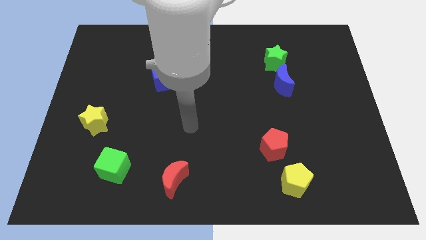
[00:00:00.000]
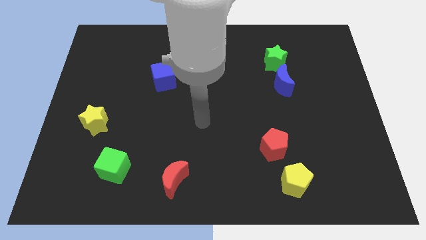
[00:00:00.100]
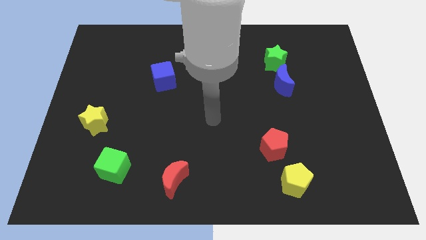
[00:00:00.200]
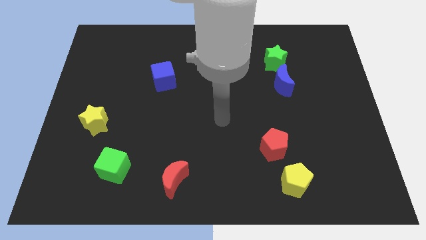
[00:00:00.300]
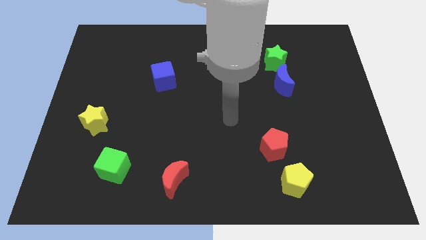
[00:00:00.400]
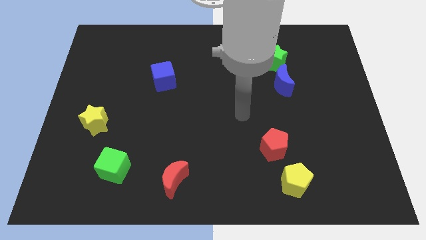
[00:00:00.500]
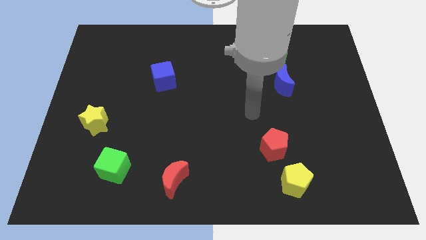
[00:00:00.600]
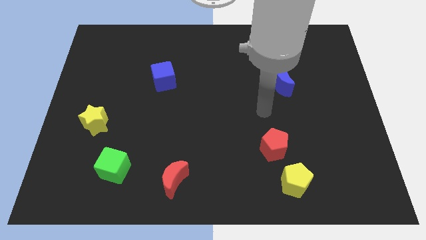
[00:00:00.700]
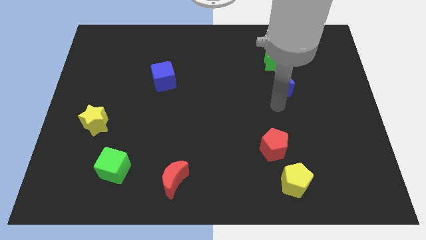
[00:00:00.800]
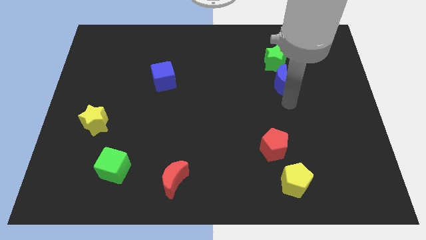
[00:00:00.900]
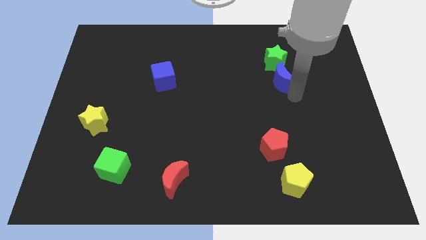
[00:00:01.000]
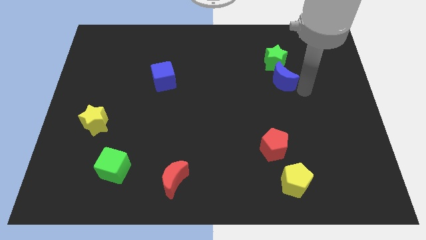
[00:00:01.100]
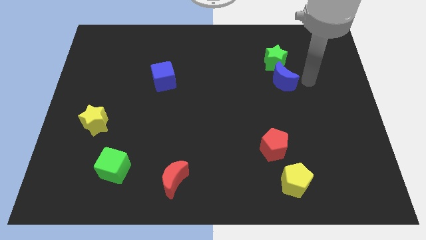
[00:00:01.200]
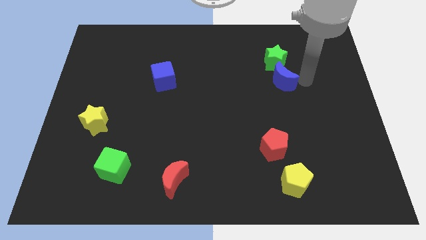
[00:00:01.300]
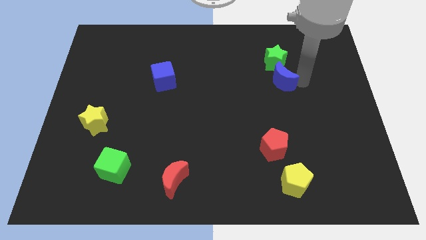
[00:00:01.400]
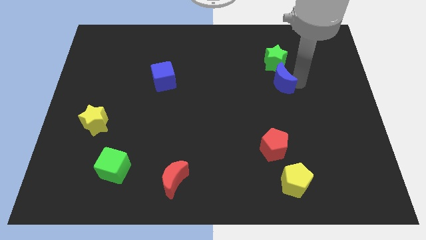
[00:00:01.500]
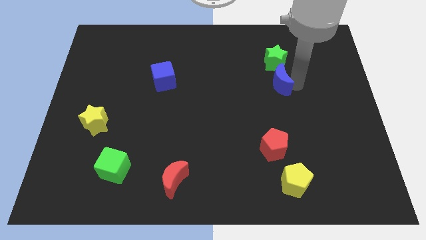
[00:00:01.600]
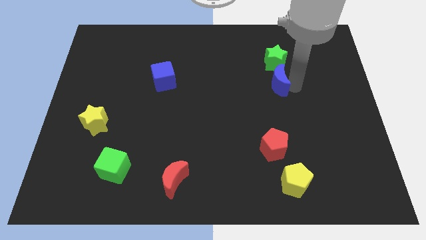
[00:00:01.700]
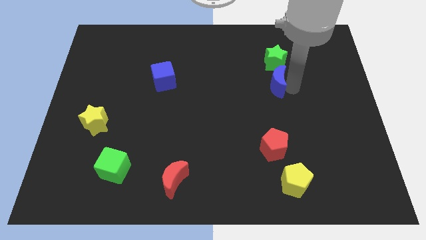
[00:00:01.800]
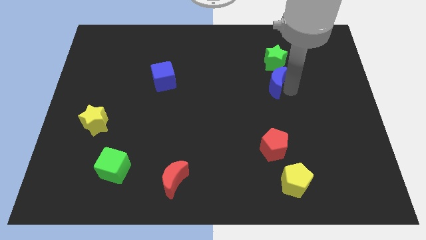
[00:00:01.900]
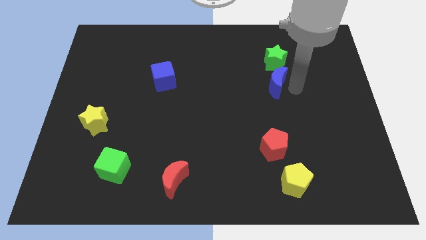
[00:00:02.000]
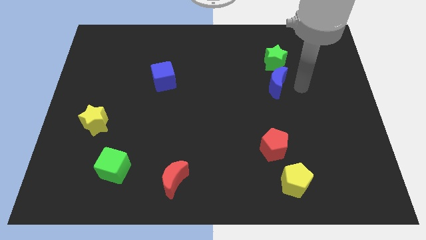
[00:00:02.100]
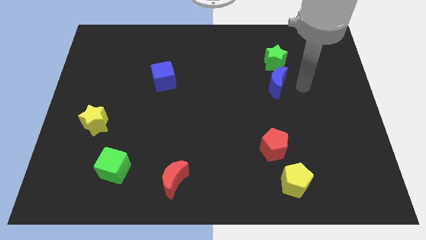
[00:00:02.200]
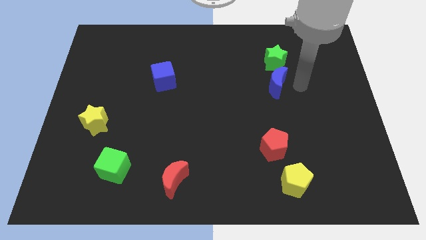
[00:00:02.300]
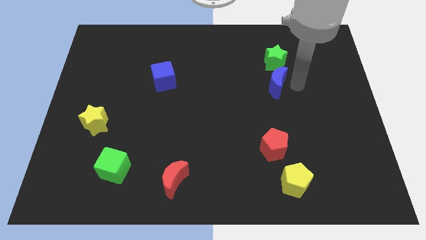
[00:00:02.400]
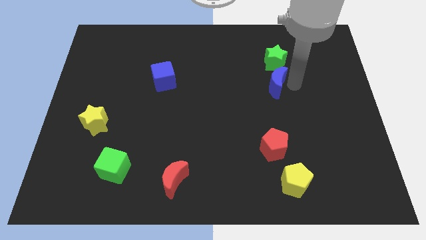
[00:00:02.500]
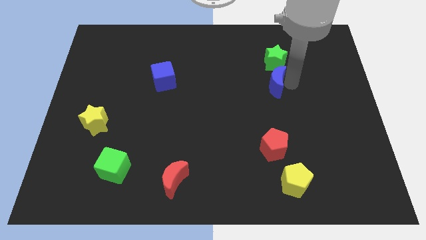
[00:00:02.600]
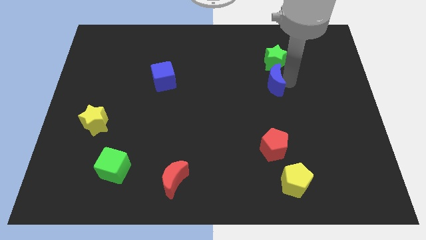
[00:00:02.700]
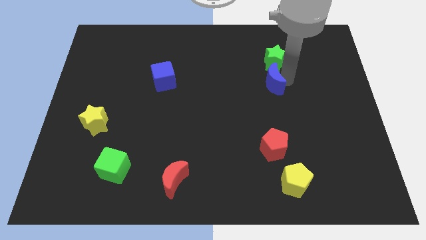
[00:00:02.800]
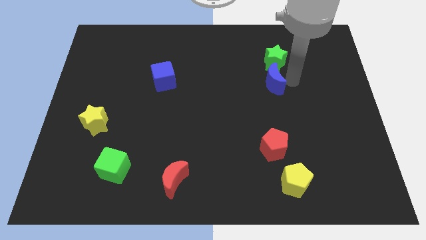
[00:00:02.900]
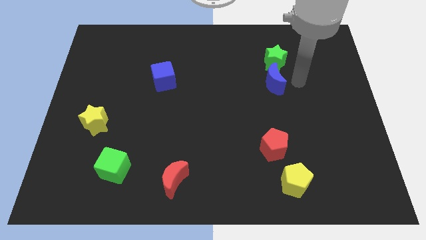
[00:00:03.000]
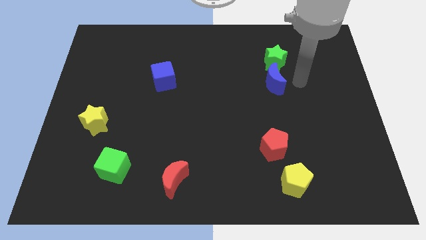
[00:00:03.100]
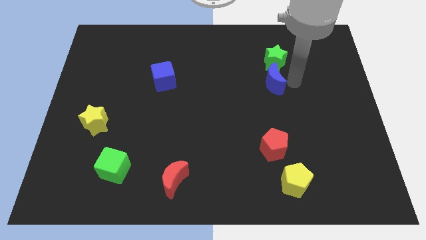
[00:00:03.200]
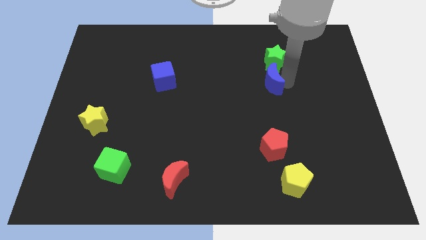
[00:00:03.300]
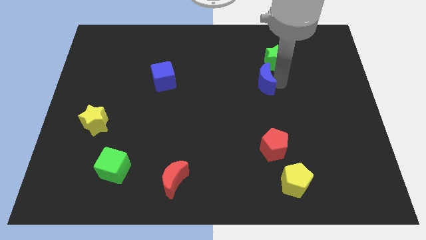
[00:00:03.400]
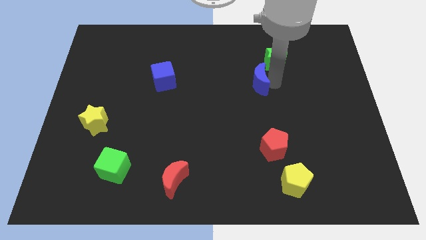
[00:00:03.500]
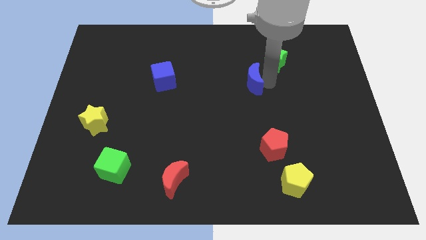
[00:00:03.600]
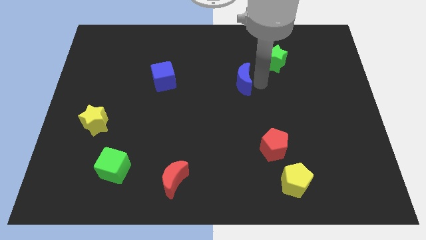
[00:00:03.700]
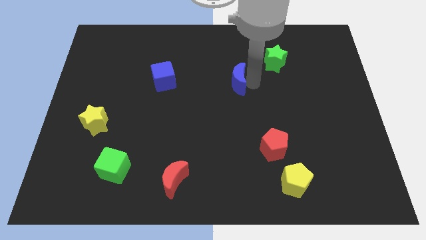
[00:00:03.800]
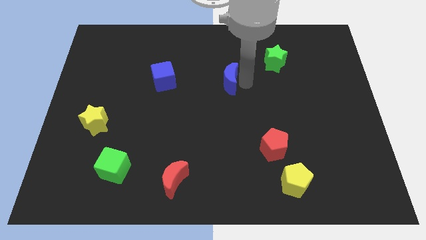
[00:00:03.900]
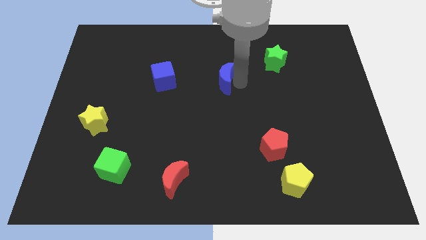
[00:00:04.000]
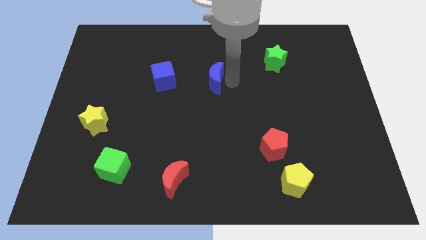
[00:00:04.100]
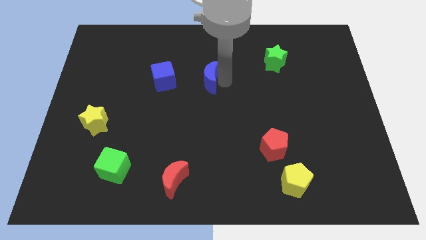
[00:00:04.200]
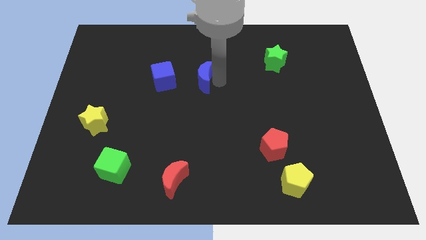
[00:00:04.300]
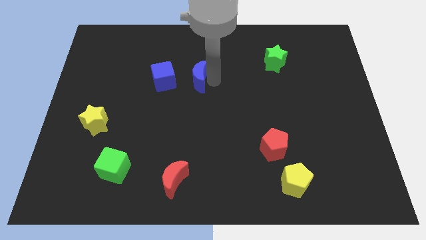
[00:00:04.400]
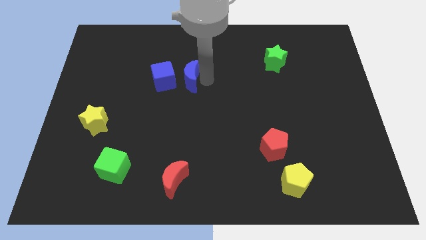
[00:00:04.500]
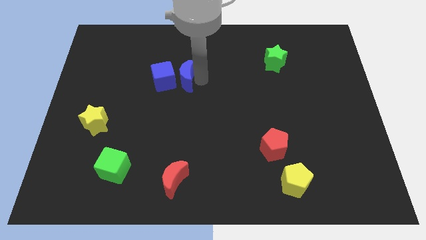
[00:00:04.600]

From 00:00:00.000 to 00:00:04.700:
slide the blue moon next to the blue cube

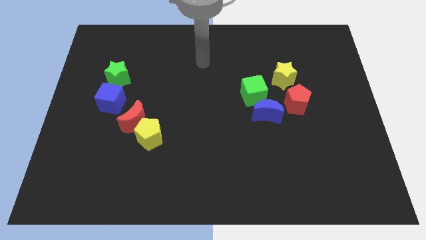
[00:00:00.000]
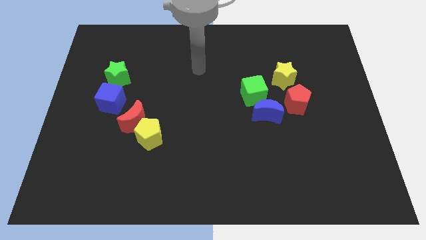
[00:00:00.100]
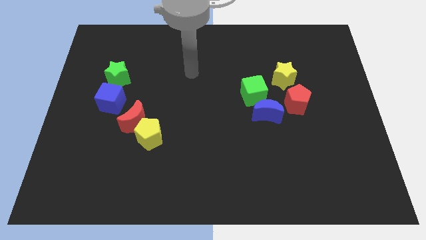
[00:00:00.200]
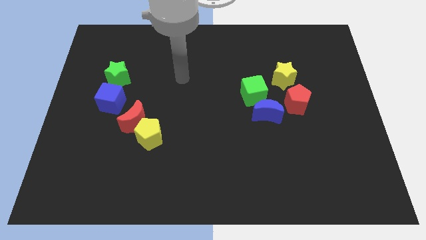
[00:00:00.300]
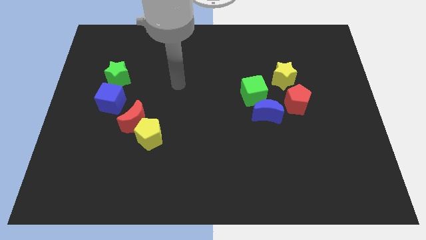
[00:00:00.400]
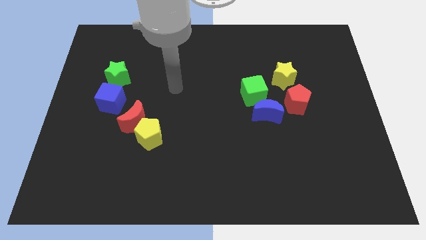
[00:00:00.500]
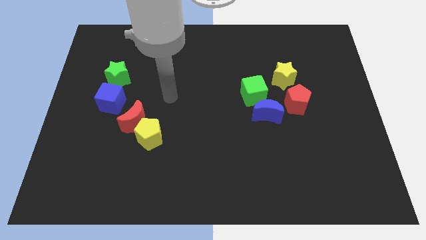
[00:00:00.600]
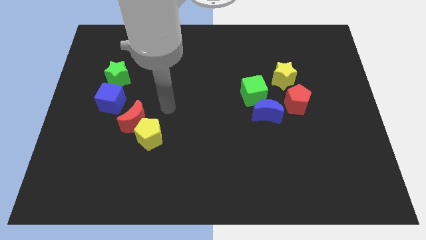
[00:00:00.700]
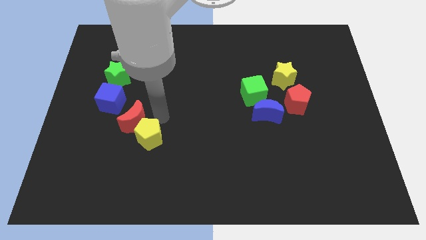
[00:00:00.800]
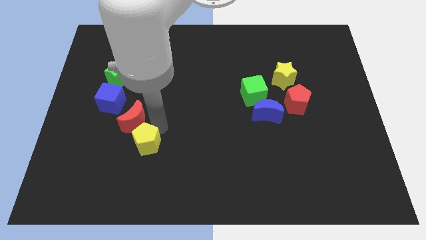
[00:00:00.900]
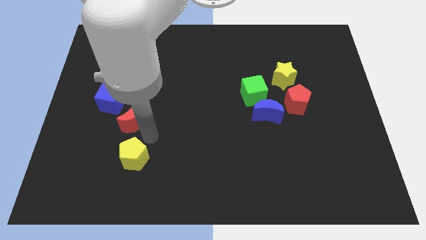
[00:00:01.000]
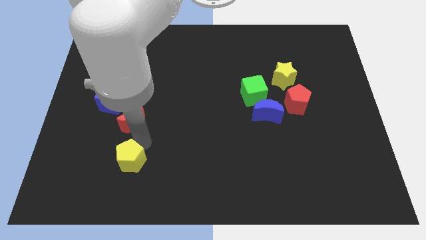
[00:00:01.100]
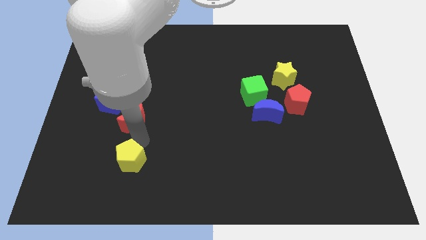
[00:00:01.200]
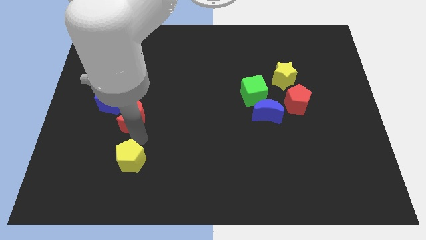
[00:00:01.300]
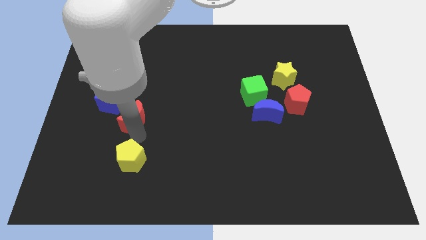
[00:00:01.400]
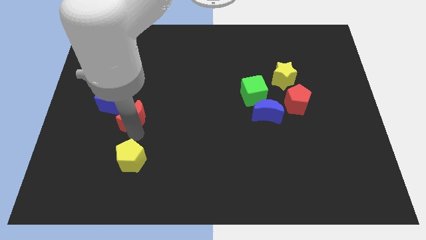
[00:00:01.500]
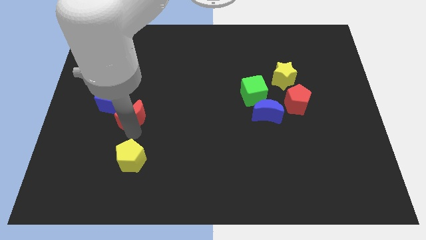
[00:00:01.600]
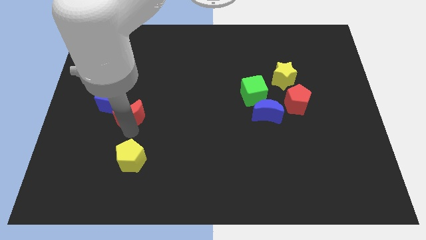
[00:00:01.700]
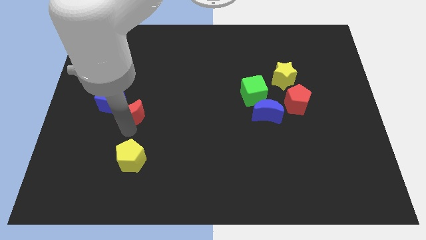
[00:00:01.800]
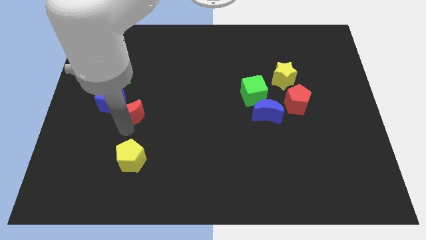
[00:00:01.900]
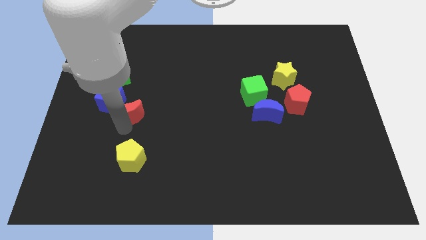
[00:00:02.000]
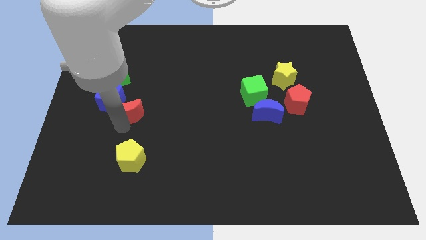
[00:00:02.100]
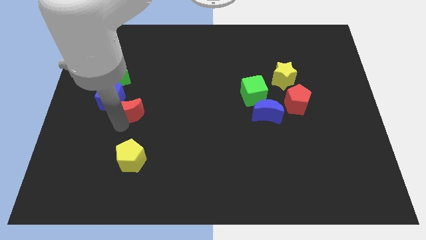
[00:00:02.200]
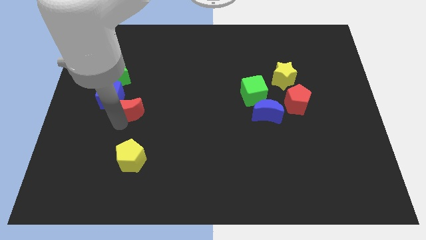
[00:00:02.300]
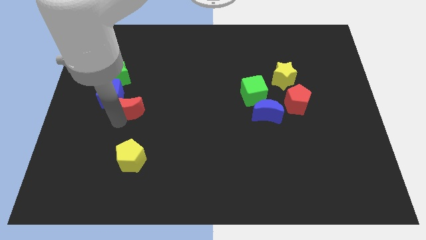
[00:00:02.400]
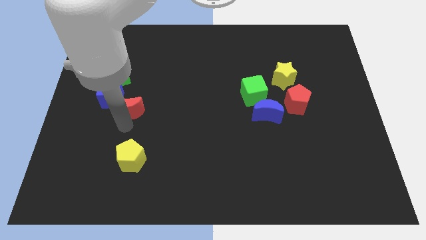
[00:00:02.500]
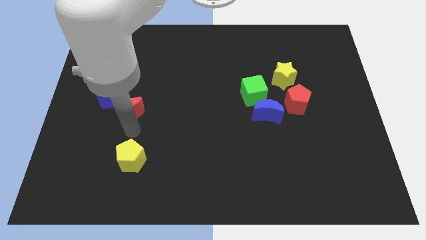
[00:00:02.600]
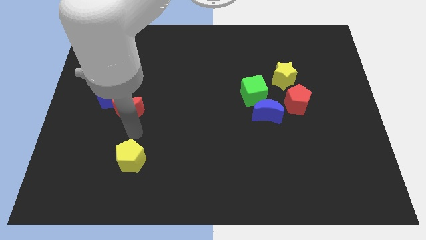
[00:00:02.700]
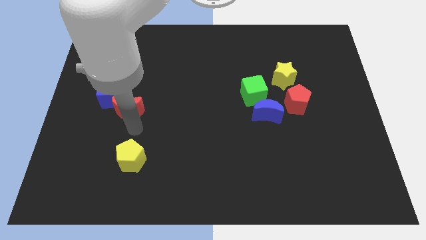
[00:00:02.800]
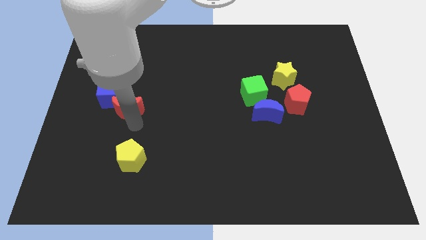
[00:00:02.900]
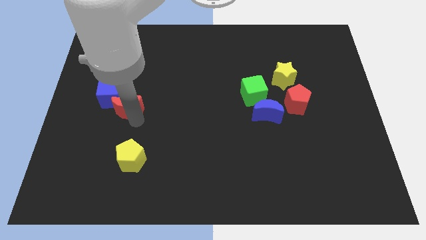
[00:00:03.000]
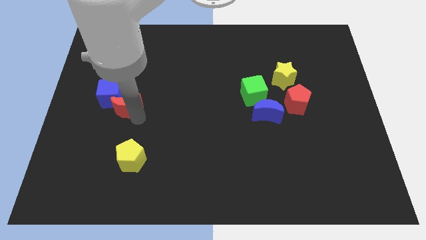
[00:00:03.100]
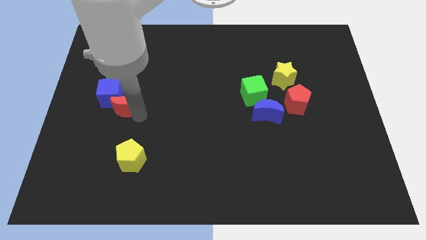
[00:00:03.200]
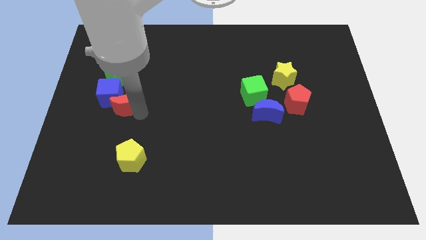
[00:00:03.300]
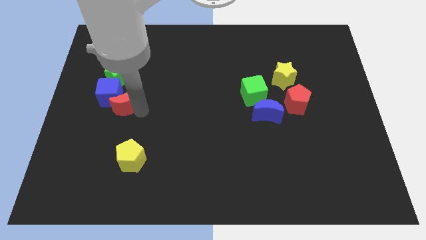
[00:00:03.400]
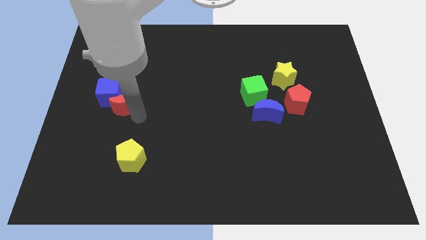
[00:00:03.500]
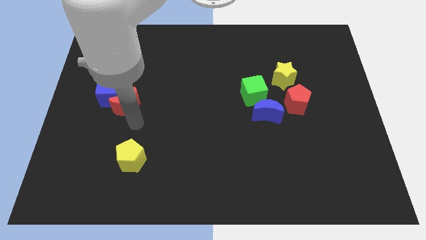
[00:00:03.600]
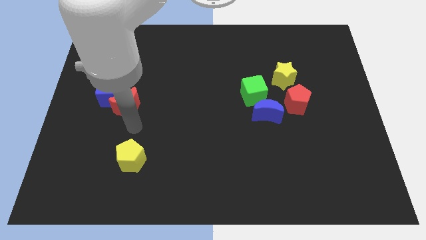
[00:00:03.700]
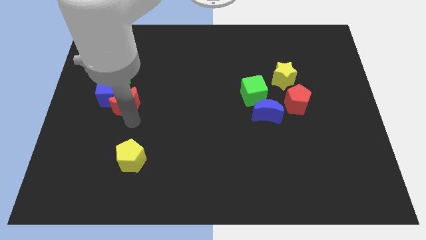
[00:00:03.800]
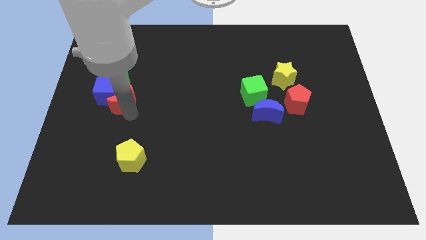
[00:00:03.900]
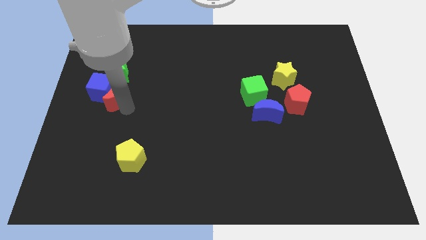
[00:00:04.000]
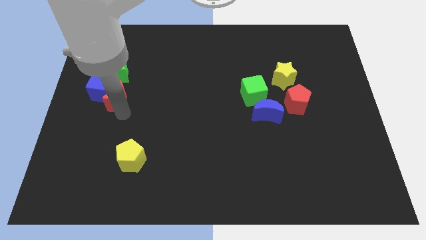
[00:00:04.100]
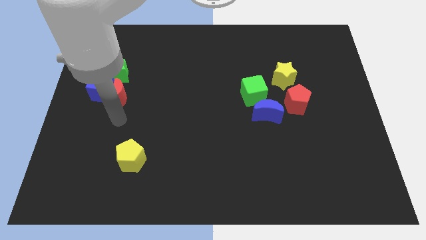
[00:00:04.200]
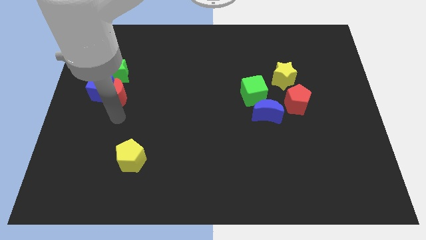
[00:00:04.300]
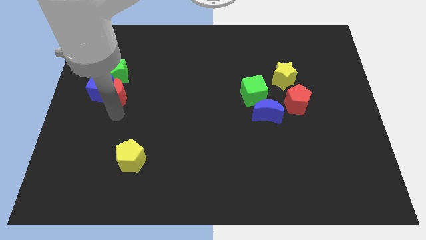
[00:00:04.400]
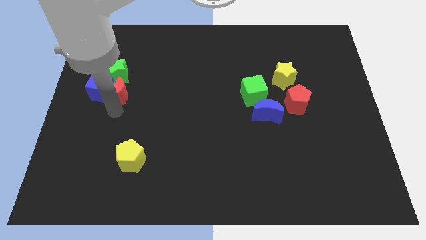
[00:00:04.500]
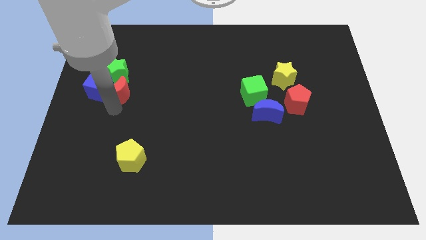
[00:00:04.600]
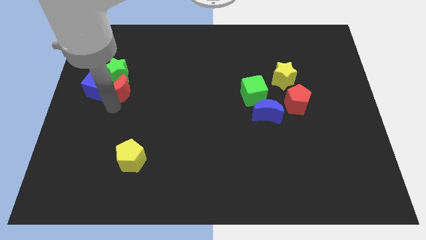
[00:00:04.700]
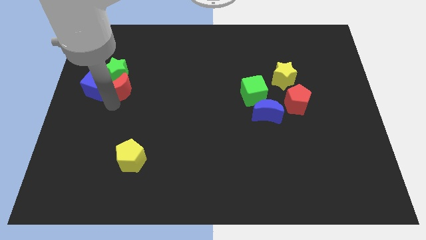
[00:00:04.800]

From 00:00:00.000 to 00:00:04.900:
put the red moon to the green star
